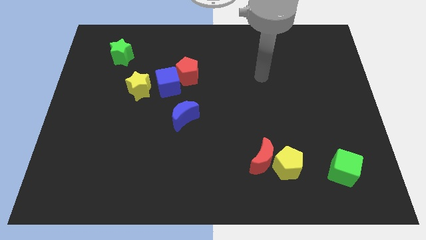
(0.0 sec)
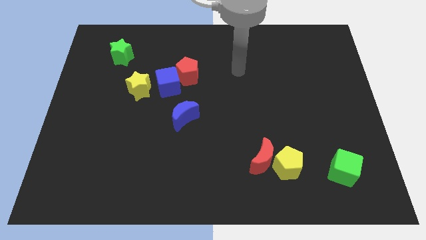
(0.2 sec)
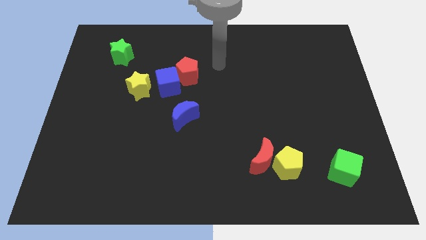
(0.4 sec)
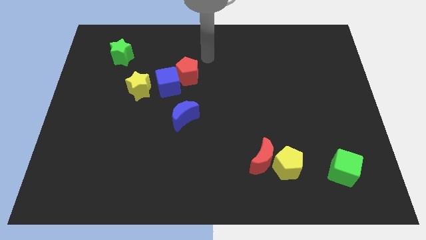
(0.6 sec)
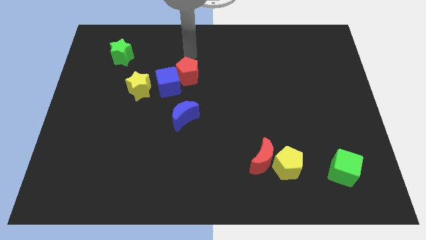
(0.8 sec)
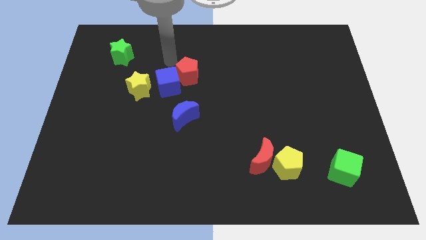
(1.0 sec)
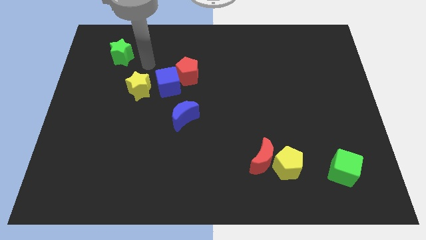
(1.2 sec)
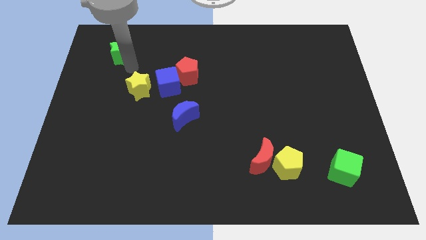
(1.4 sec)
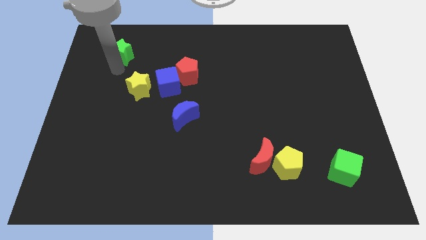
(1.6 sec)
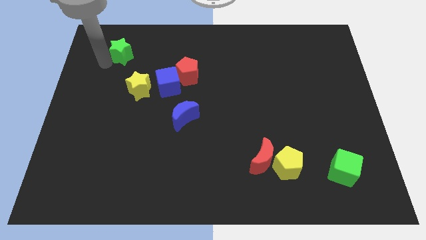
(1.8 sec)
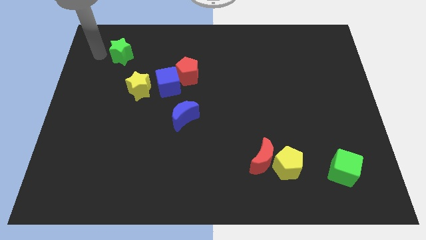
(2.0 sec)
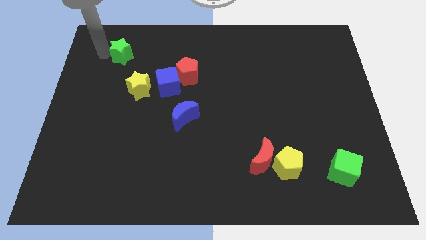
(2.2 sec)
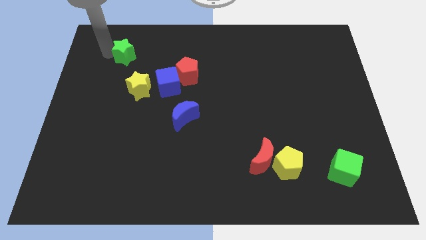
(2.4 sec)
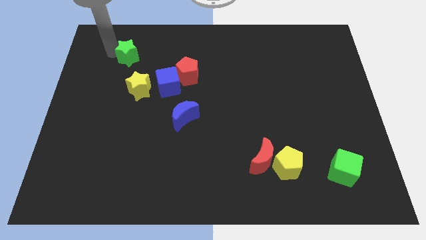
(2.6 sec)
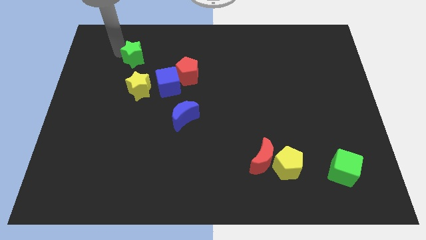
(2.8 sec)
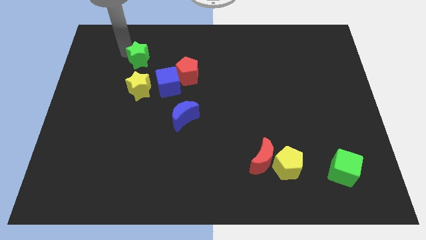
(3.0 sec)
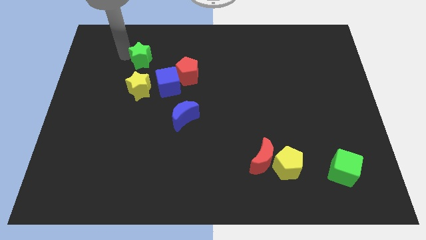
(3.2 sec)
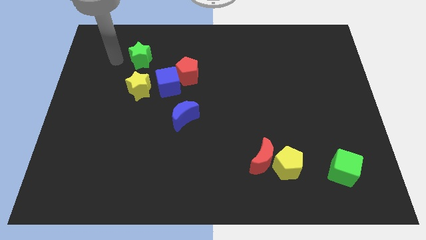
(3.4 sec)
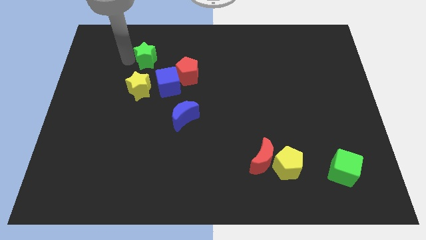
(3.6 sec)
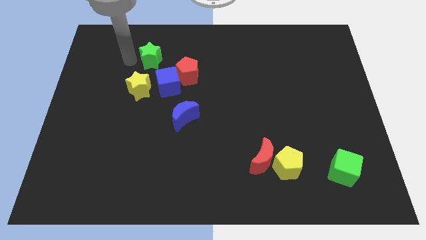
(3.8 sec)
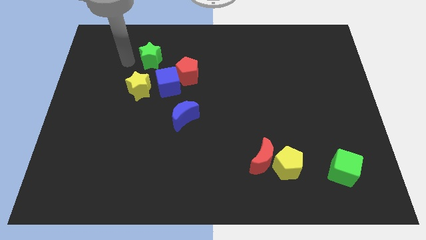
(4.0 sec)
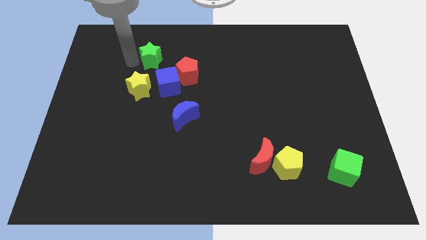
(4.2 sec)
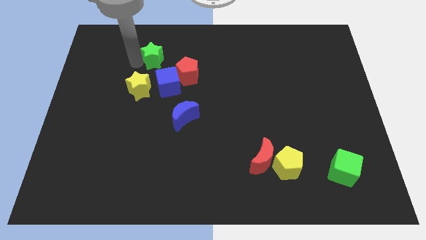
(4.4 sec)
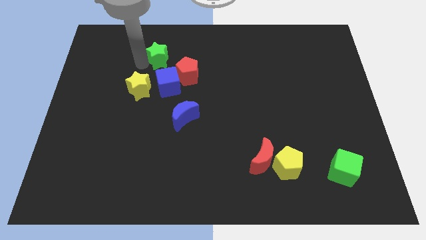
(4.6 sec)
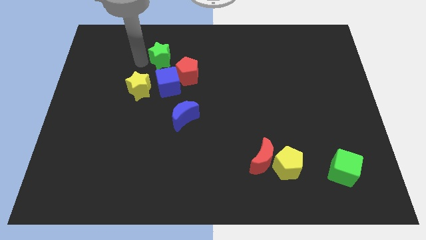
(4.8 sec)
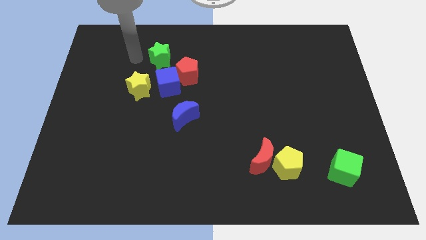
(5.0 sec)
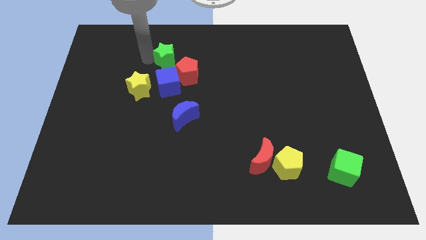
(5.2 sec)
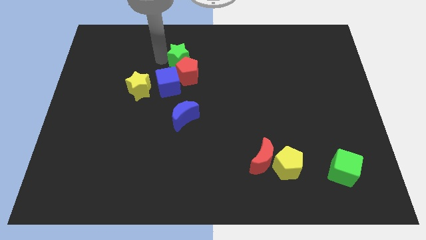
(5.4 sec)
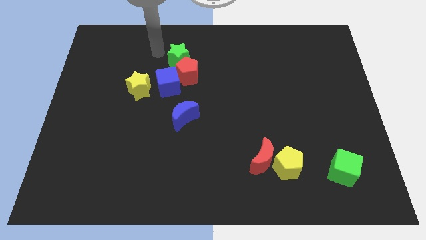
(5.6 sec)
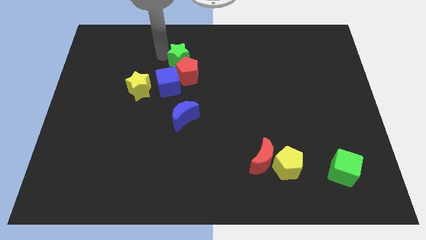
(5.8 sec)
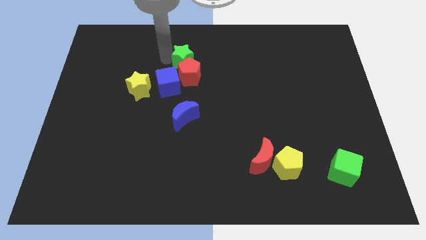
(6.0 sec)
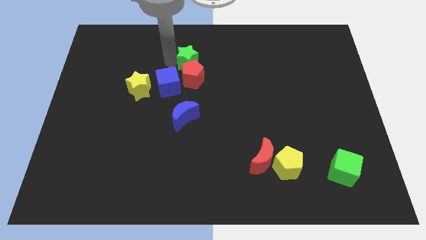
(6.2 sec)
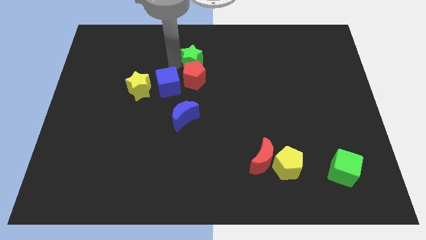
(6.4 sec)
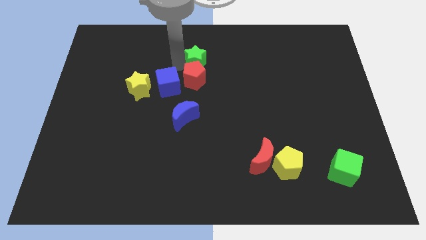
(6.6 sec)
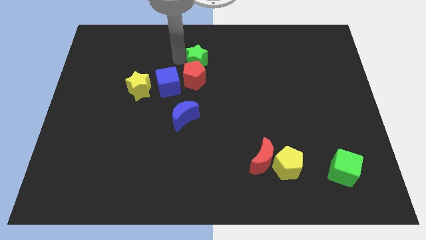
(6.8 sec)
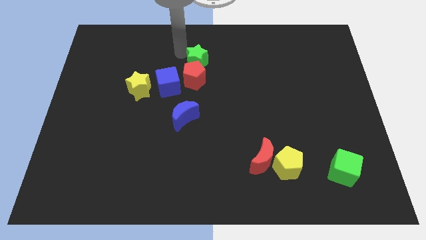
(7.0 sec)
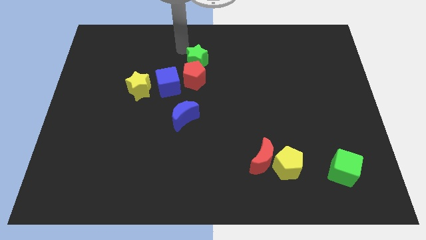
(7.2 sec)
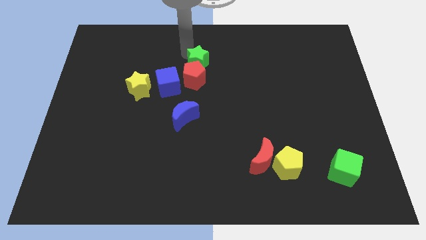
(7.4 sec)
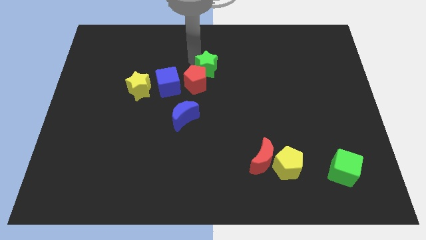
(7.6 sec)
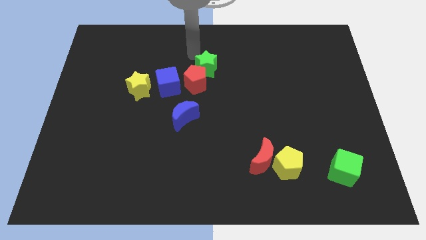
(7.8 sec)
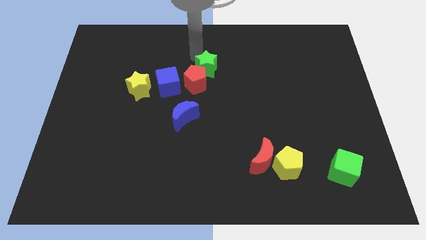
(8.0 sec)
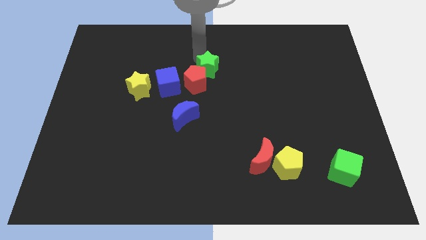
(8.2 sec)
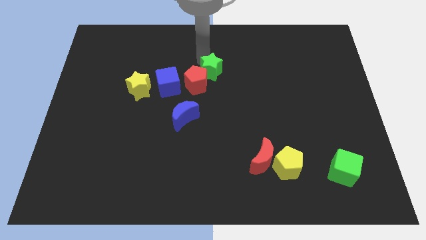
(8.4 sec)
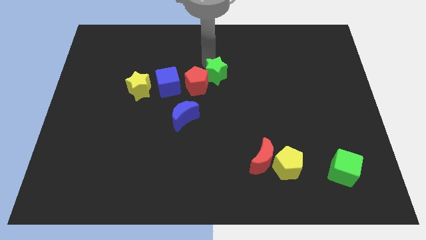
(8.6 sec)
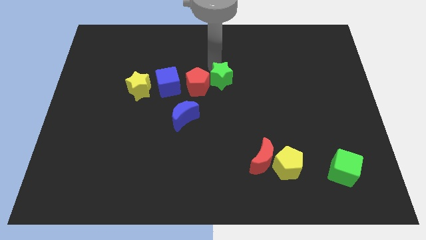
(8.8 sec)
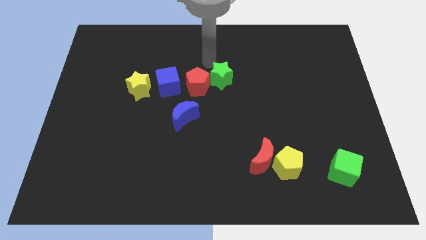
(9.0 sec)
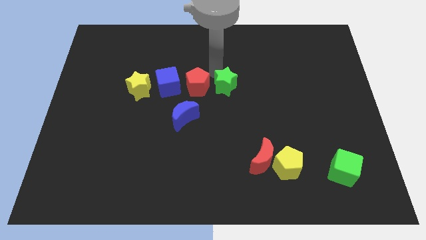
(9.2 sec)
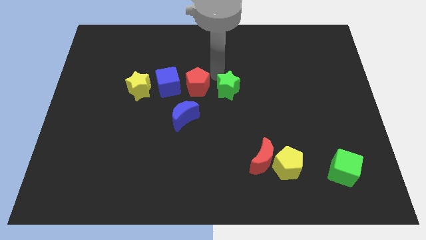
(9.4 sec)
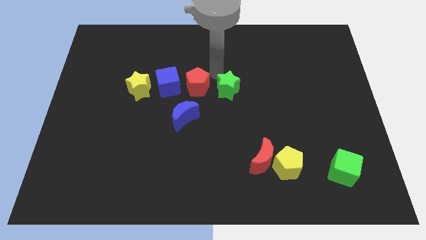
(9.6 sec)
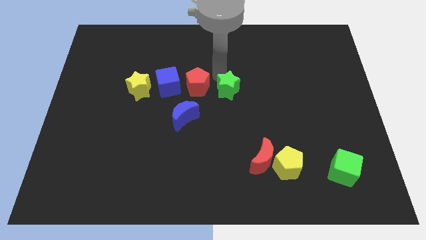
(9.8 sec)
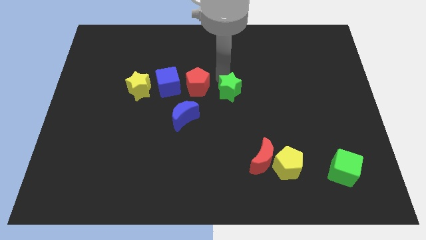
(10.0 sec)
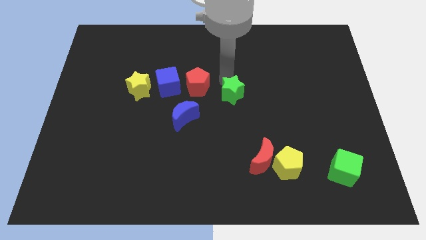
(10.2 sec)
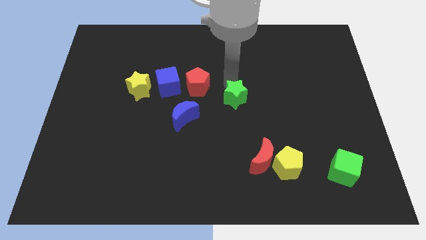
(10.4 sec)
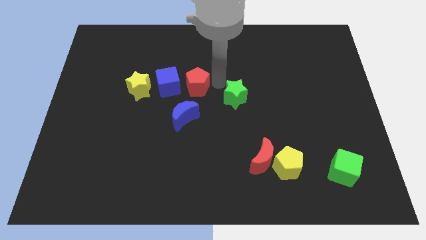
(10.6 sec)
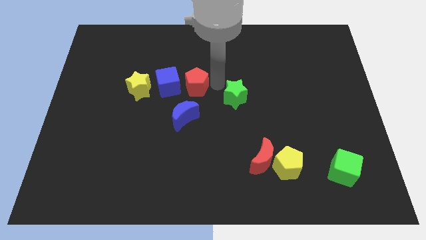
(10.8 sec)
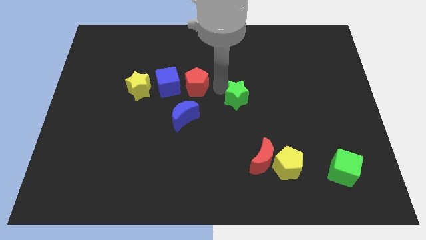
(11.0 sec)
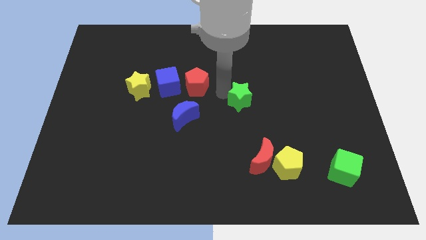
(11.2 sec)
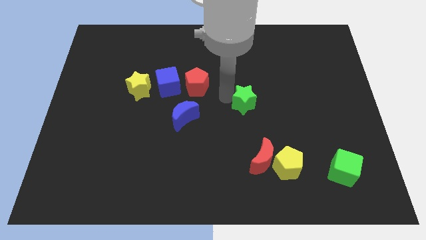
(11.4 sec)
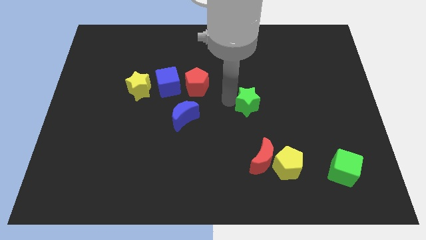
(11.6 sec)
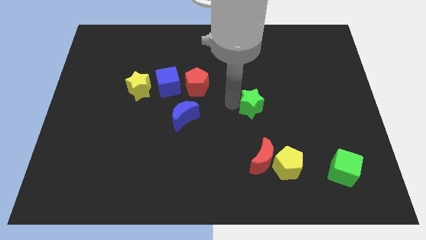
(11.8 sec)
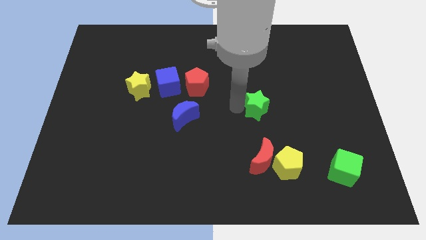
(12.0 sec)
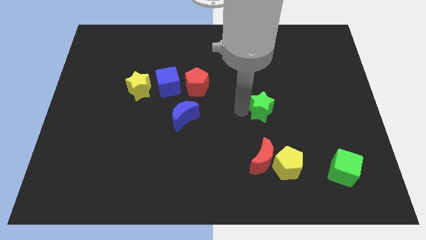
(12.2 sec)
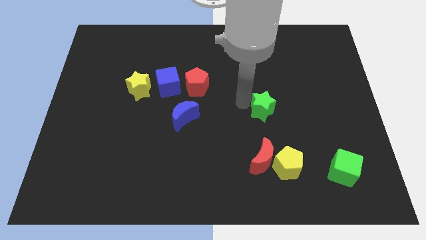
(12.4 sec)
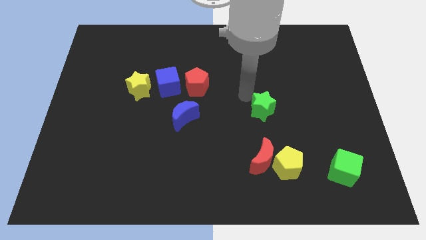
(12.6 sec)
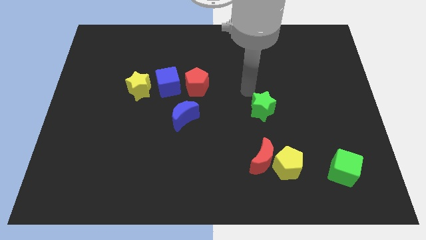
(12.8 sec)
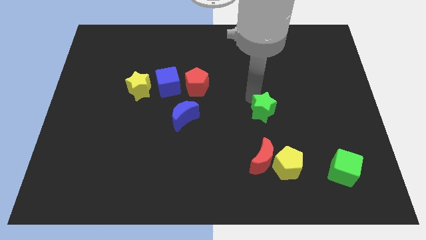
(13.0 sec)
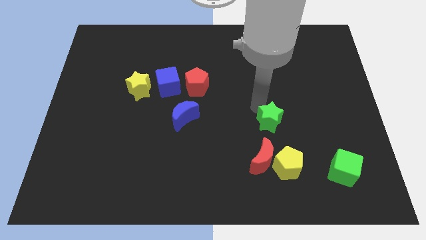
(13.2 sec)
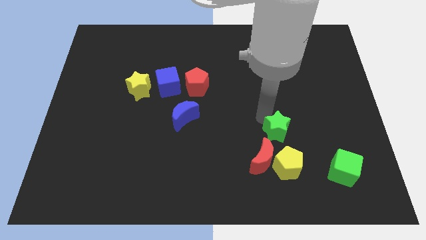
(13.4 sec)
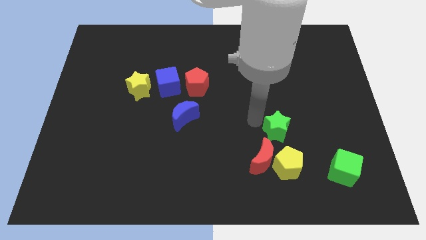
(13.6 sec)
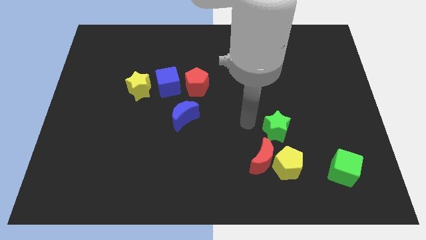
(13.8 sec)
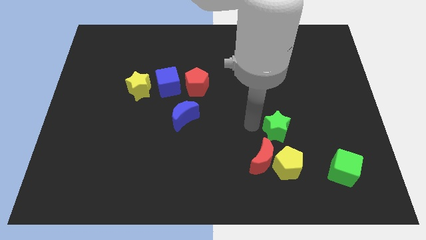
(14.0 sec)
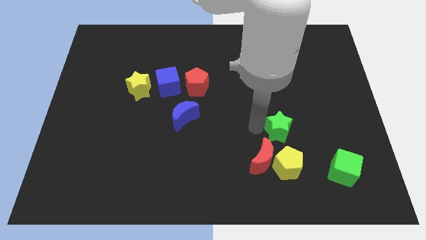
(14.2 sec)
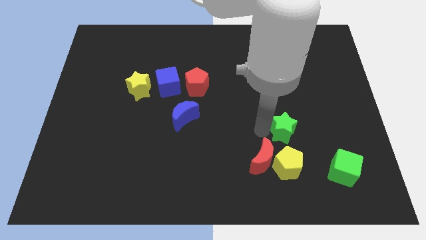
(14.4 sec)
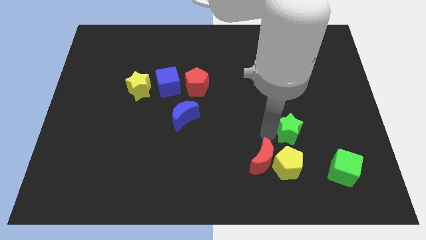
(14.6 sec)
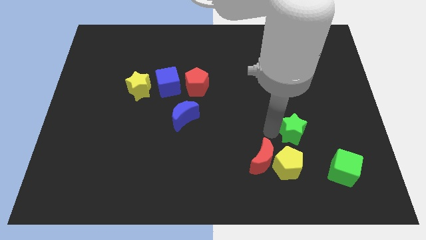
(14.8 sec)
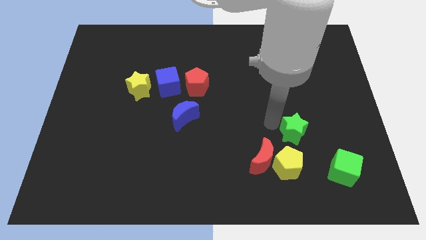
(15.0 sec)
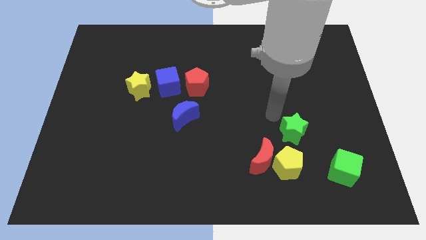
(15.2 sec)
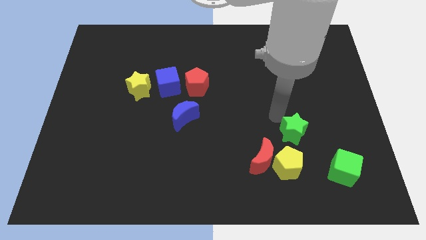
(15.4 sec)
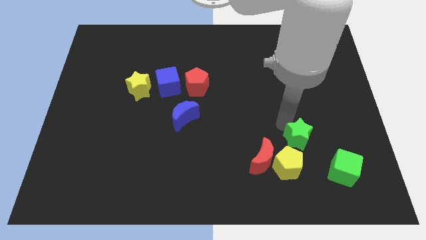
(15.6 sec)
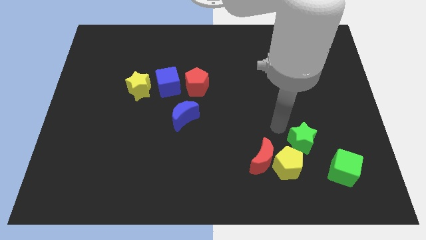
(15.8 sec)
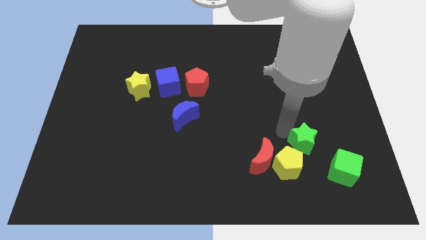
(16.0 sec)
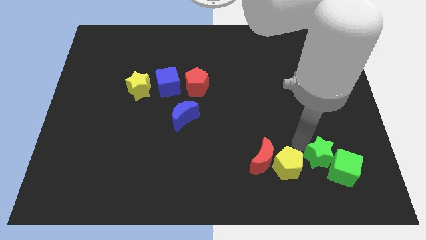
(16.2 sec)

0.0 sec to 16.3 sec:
put the green star towards the green cube
